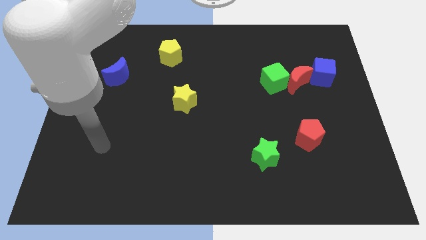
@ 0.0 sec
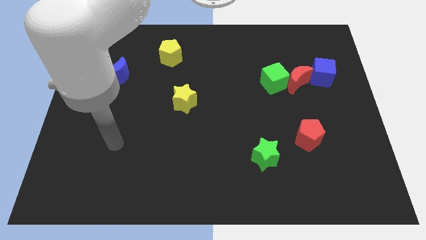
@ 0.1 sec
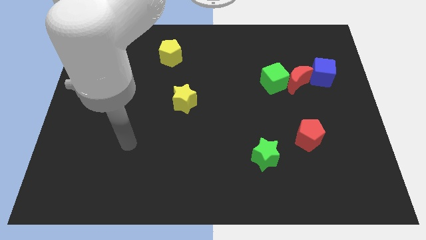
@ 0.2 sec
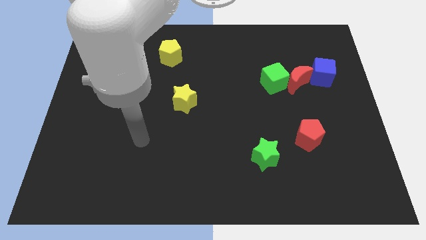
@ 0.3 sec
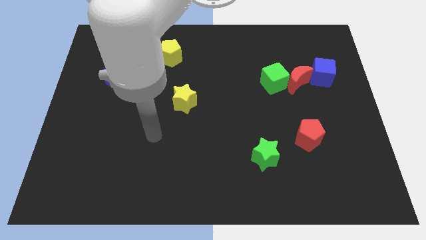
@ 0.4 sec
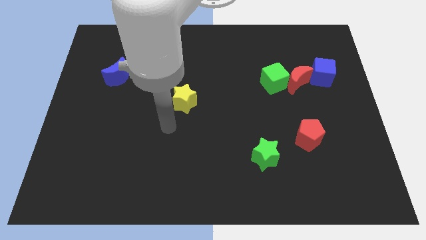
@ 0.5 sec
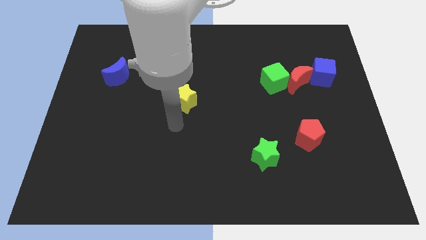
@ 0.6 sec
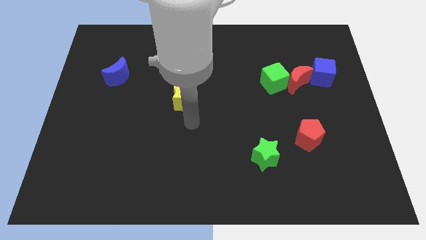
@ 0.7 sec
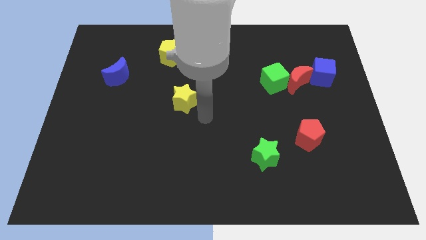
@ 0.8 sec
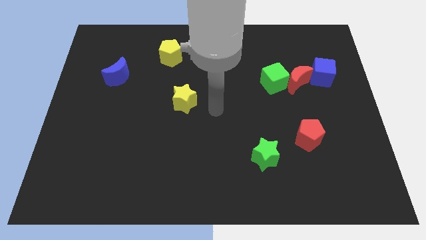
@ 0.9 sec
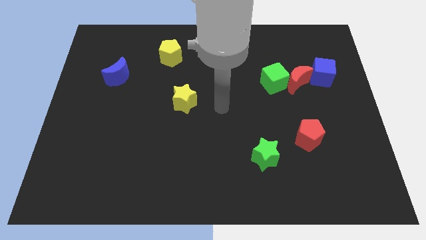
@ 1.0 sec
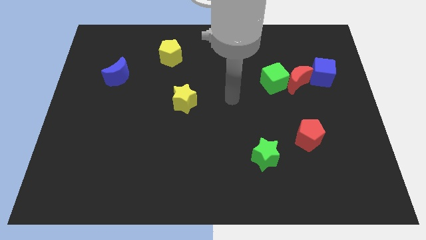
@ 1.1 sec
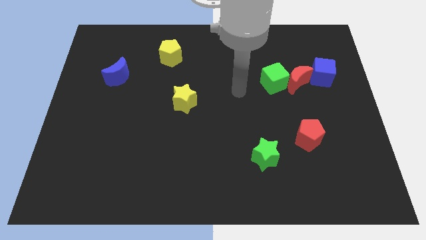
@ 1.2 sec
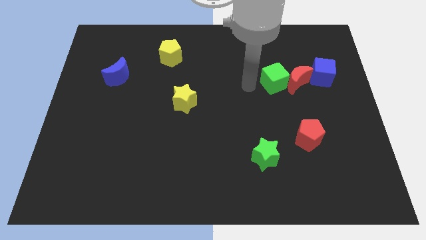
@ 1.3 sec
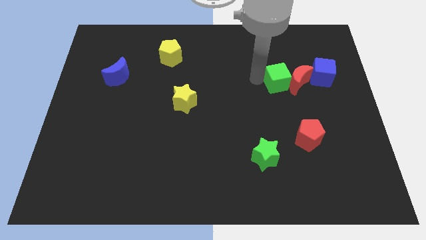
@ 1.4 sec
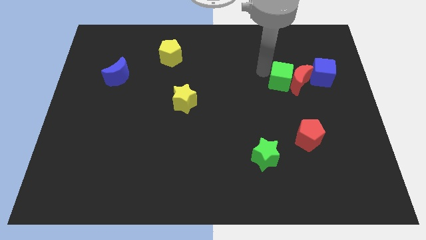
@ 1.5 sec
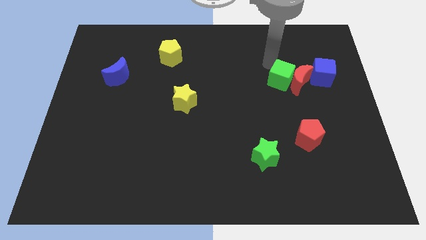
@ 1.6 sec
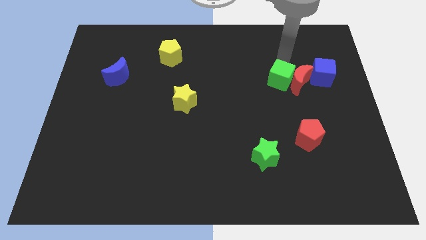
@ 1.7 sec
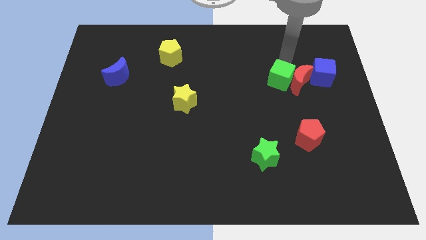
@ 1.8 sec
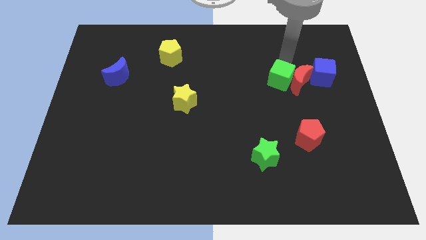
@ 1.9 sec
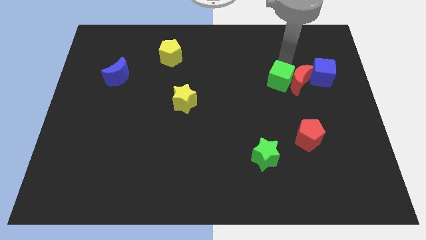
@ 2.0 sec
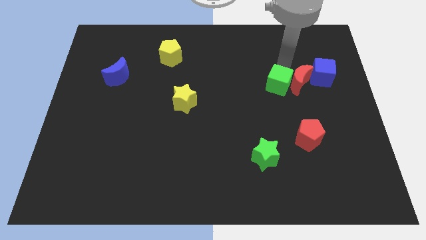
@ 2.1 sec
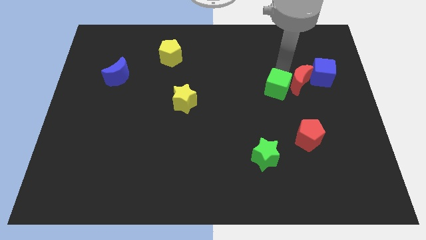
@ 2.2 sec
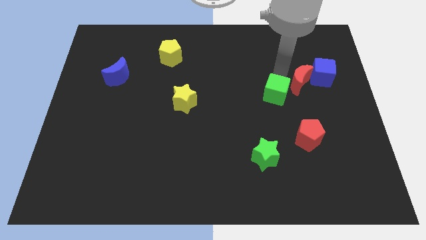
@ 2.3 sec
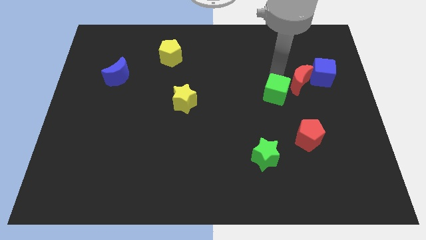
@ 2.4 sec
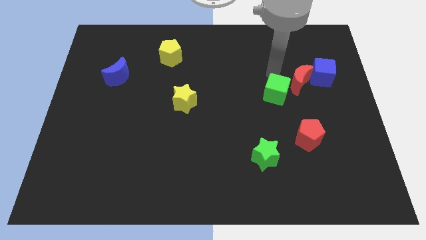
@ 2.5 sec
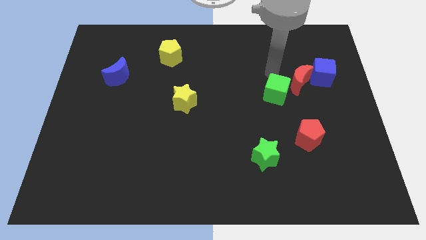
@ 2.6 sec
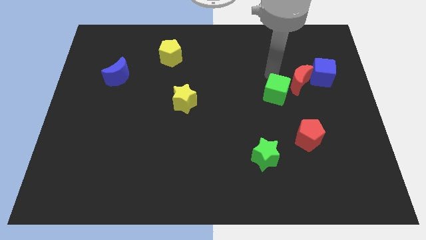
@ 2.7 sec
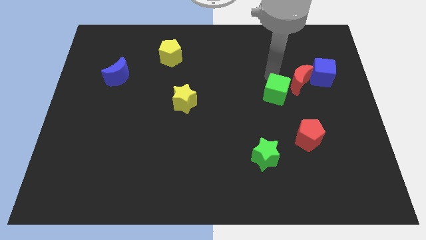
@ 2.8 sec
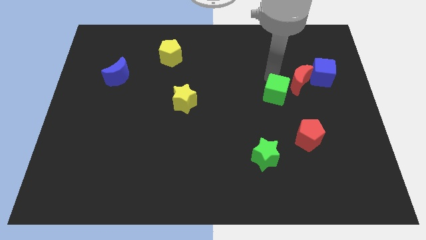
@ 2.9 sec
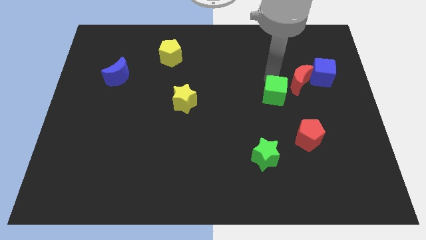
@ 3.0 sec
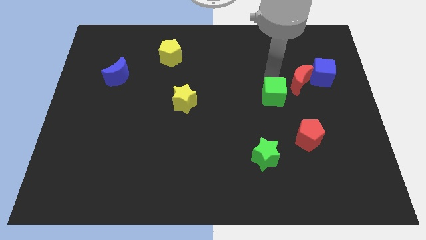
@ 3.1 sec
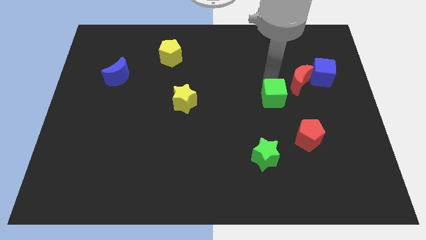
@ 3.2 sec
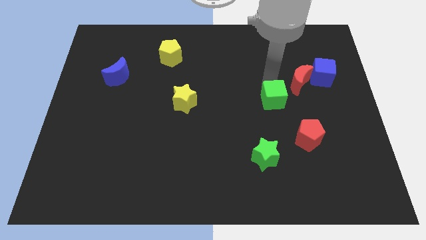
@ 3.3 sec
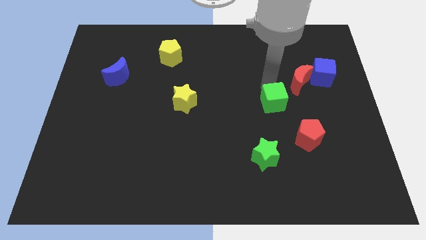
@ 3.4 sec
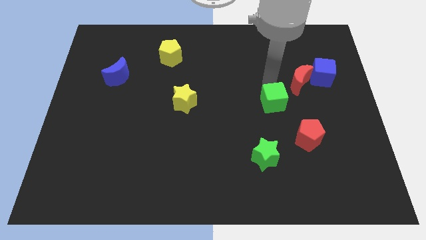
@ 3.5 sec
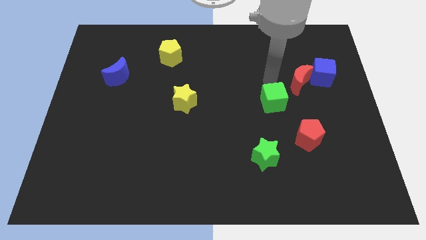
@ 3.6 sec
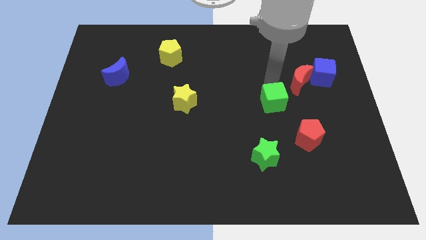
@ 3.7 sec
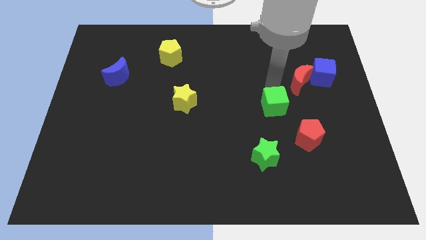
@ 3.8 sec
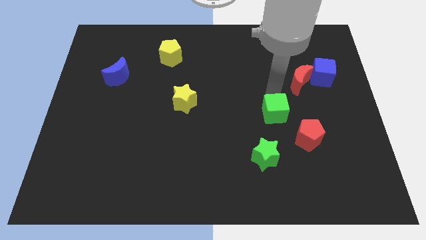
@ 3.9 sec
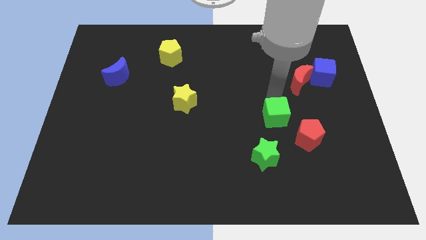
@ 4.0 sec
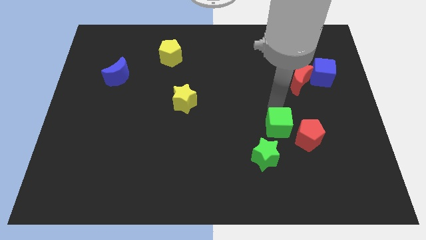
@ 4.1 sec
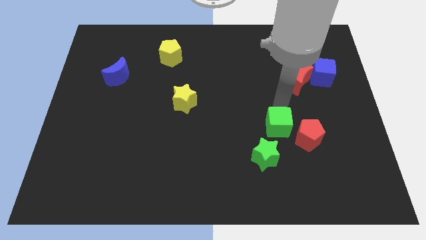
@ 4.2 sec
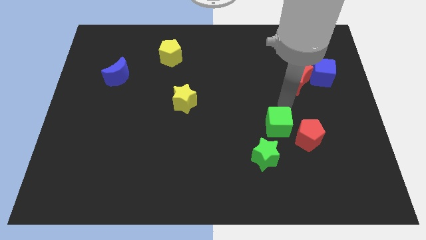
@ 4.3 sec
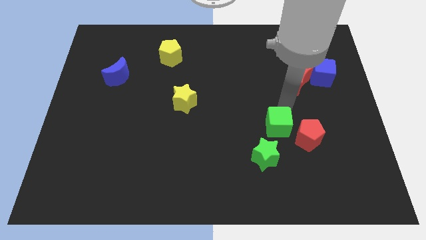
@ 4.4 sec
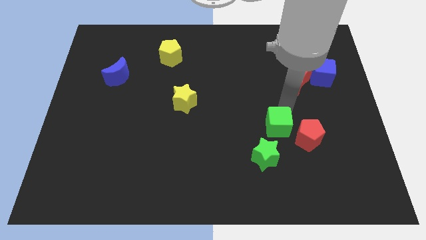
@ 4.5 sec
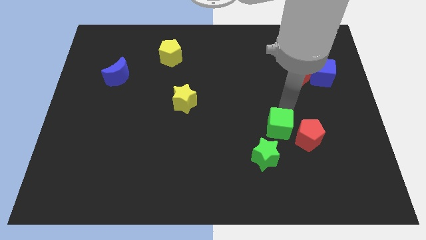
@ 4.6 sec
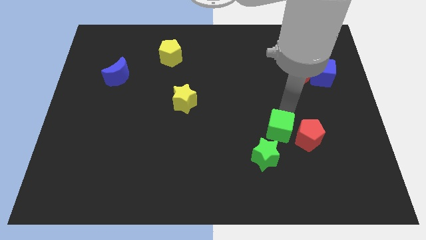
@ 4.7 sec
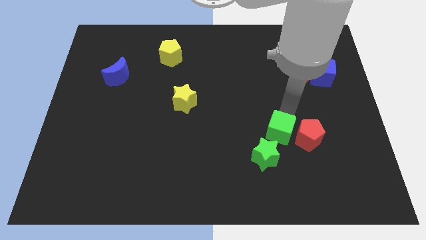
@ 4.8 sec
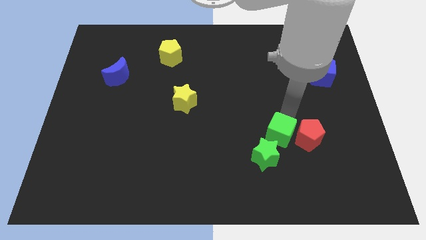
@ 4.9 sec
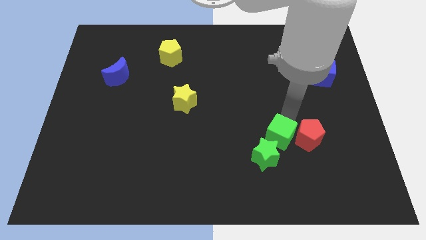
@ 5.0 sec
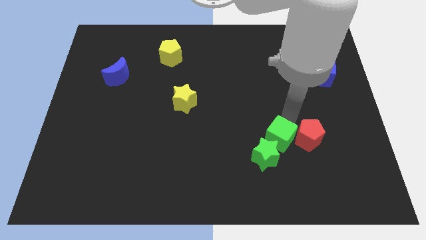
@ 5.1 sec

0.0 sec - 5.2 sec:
move the green cube towards the green star

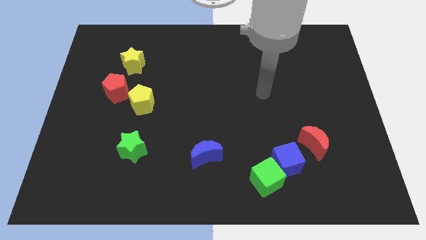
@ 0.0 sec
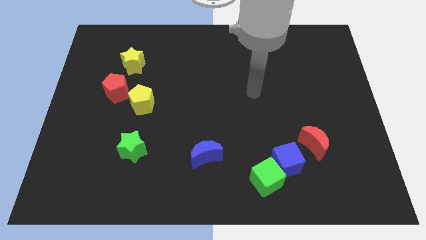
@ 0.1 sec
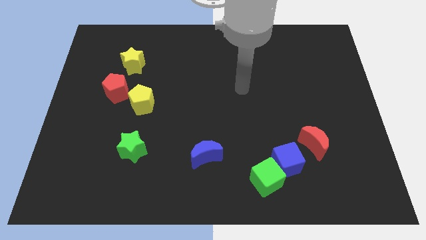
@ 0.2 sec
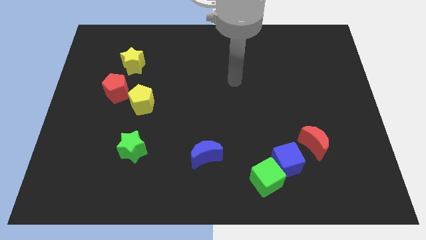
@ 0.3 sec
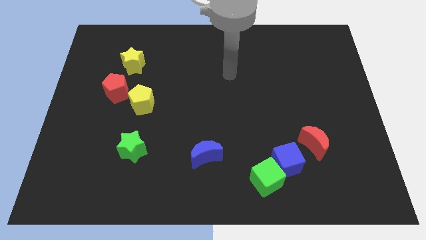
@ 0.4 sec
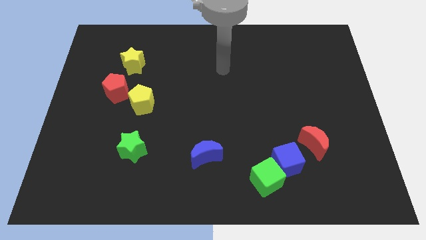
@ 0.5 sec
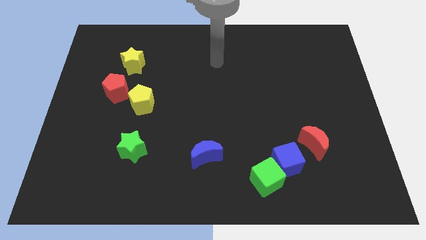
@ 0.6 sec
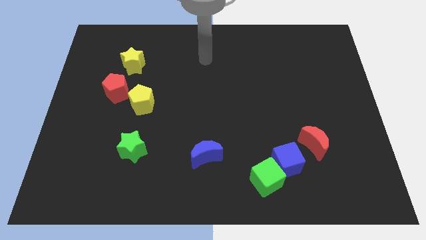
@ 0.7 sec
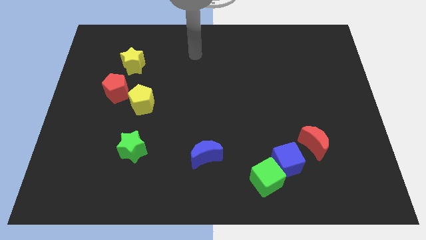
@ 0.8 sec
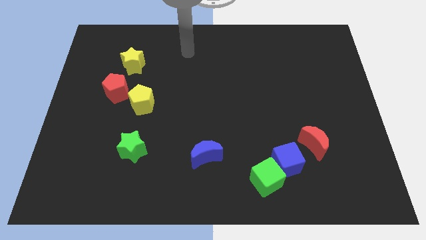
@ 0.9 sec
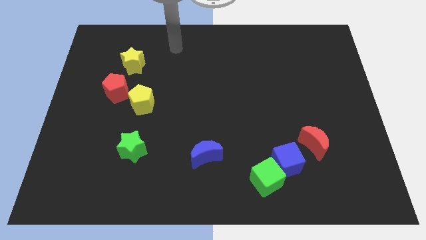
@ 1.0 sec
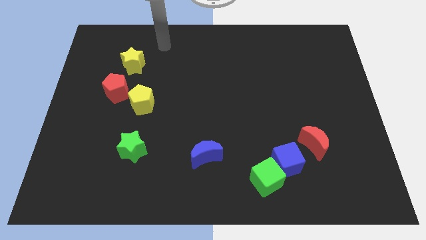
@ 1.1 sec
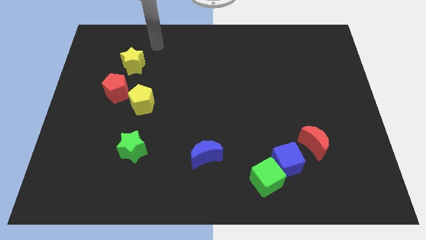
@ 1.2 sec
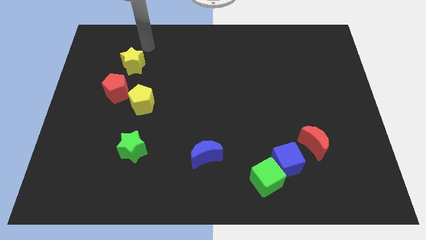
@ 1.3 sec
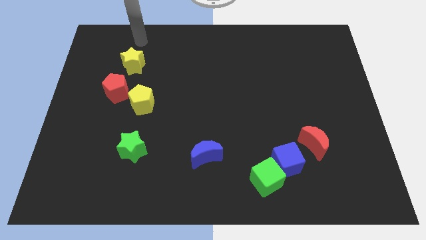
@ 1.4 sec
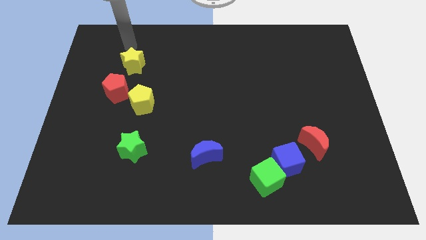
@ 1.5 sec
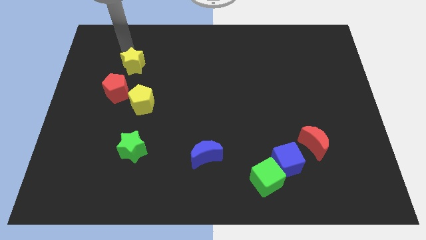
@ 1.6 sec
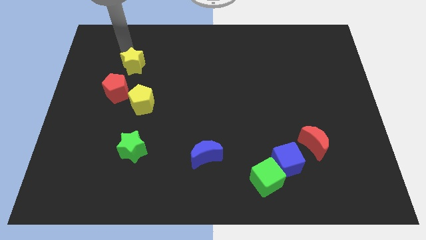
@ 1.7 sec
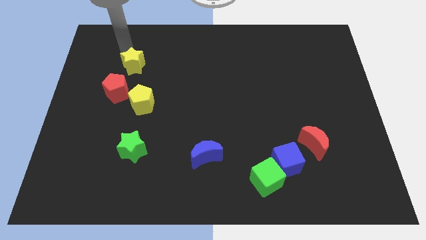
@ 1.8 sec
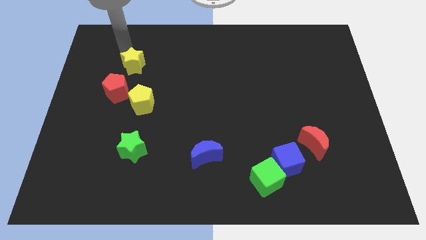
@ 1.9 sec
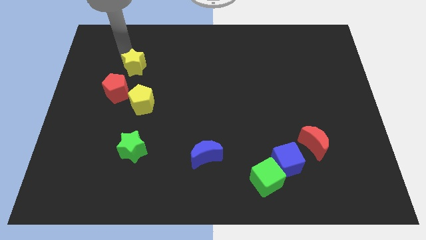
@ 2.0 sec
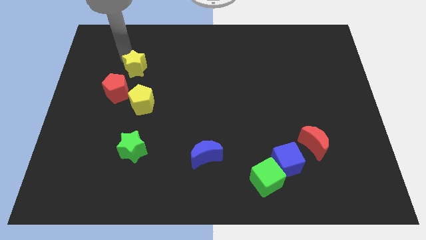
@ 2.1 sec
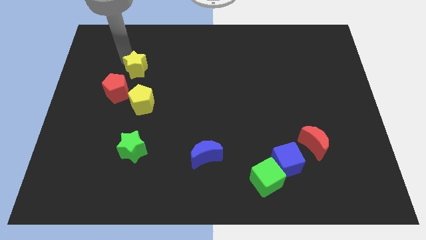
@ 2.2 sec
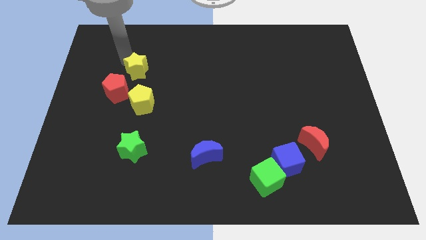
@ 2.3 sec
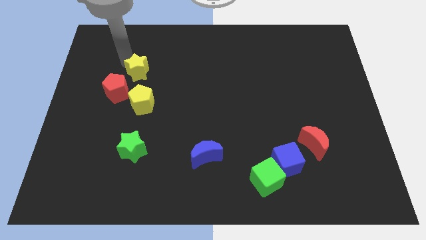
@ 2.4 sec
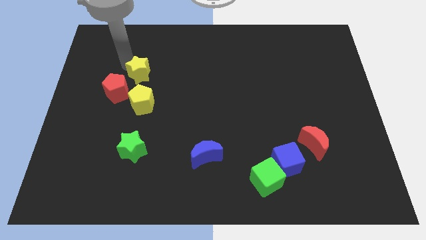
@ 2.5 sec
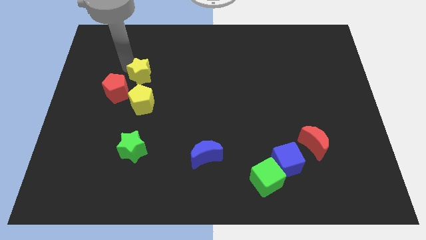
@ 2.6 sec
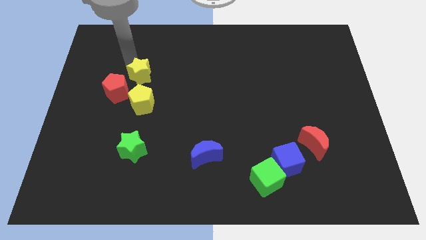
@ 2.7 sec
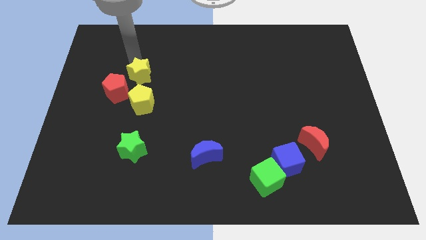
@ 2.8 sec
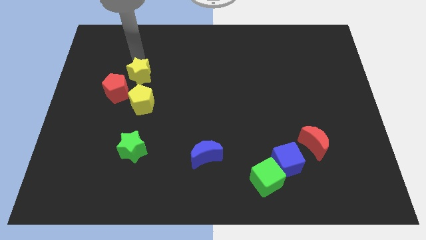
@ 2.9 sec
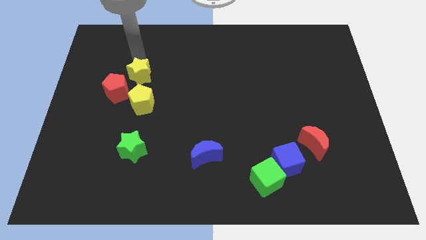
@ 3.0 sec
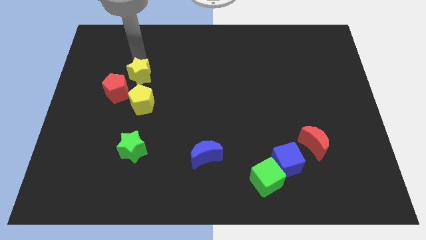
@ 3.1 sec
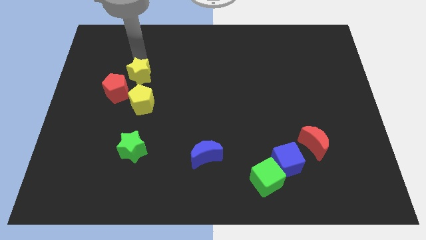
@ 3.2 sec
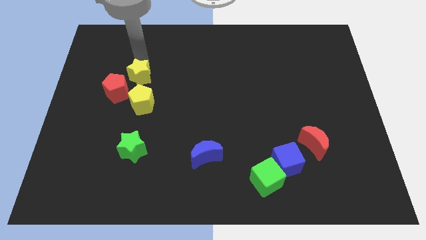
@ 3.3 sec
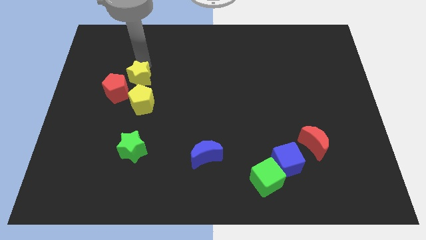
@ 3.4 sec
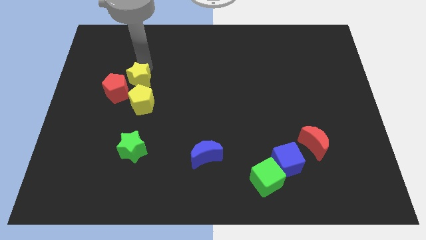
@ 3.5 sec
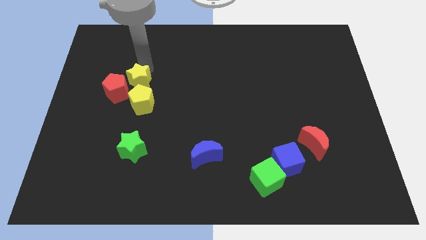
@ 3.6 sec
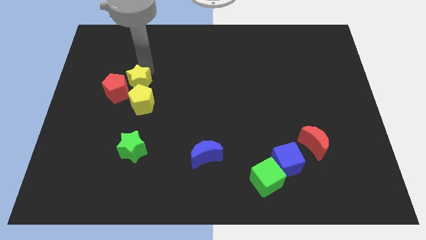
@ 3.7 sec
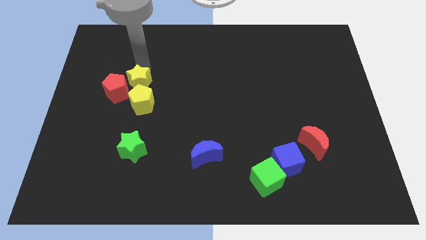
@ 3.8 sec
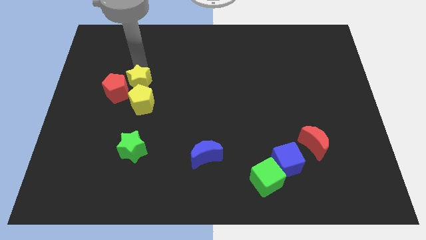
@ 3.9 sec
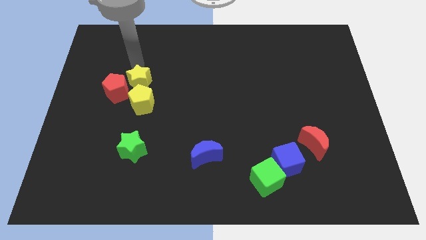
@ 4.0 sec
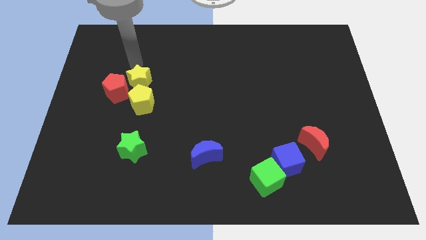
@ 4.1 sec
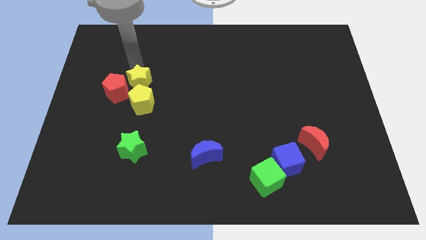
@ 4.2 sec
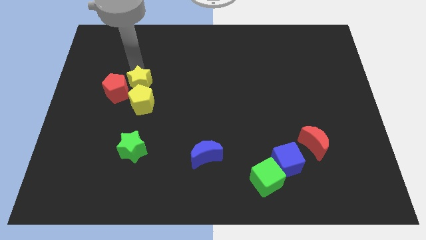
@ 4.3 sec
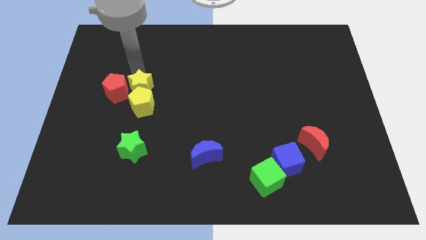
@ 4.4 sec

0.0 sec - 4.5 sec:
push the yellow star to the yellow pentagon
